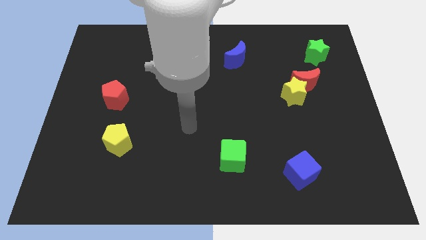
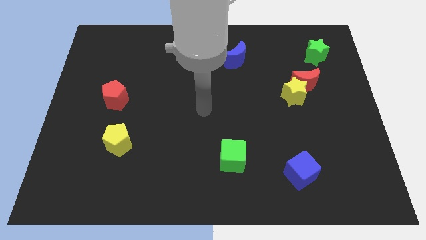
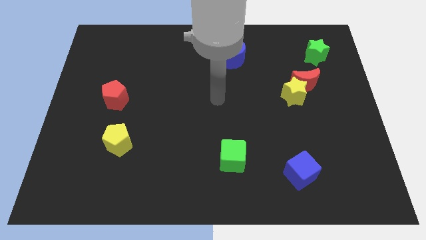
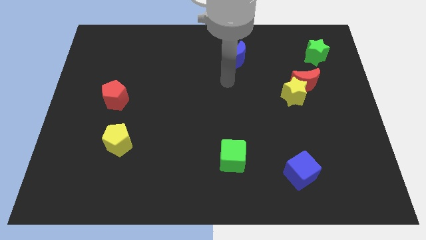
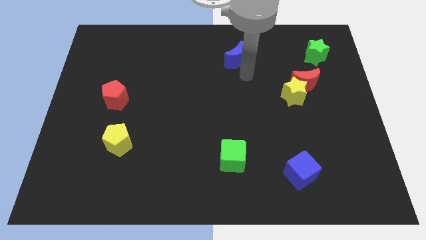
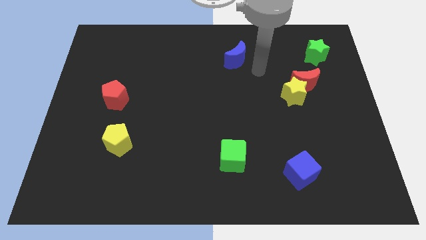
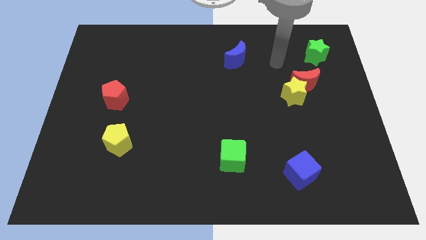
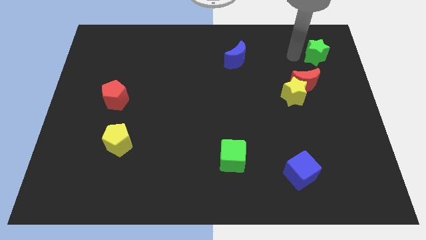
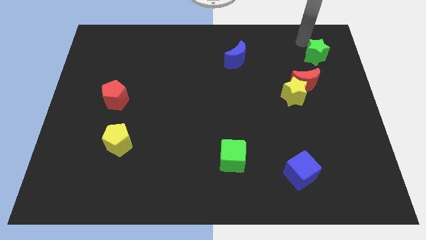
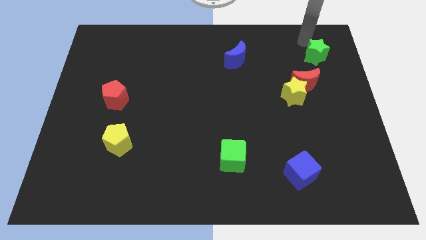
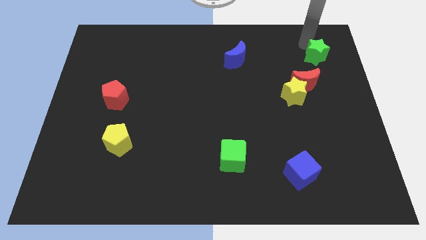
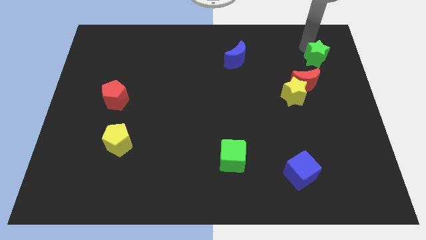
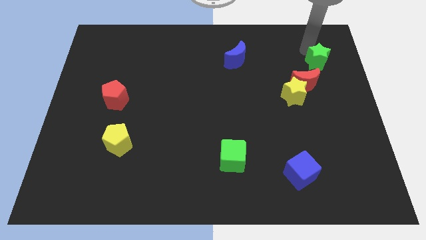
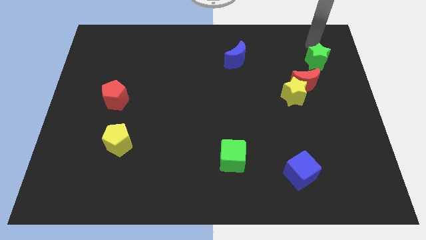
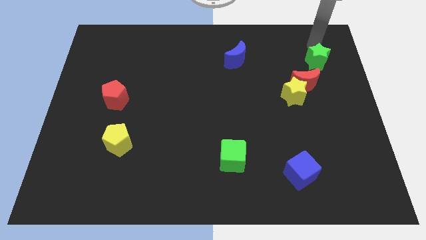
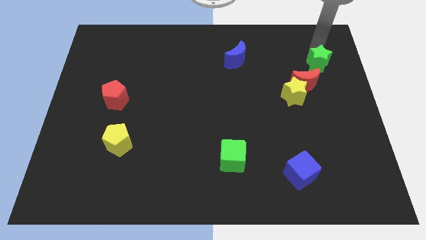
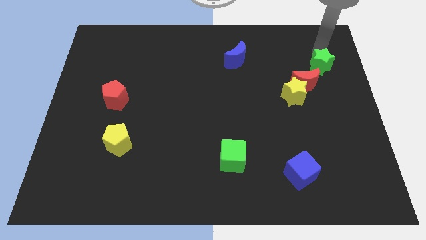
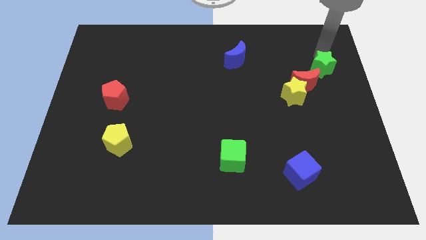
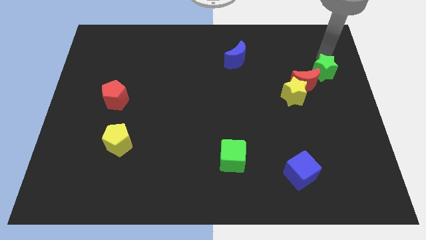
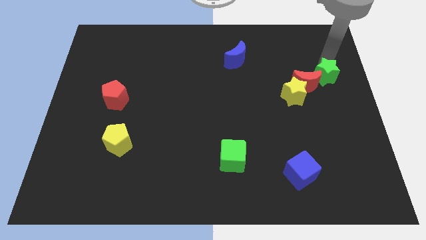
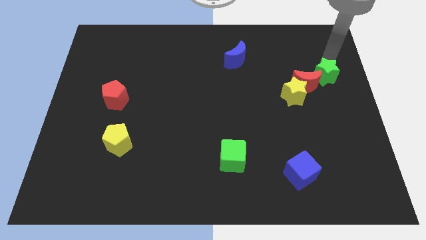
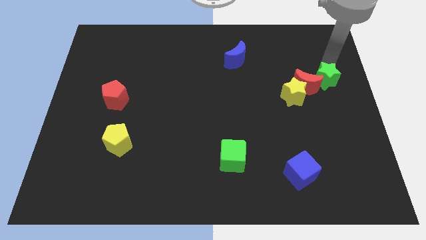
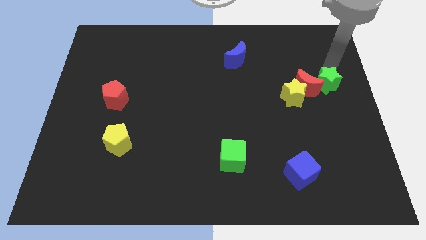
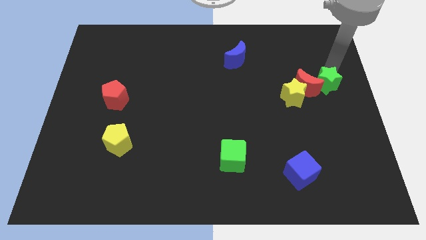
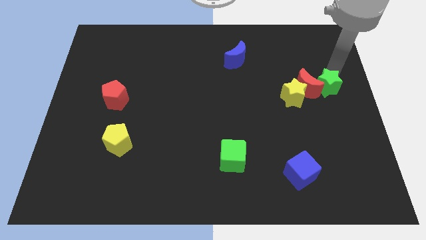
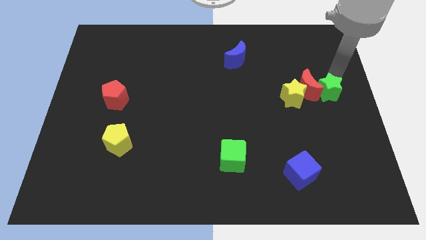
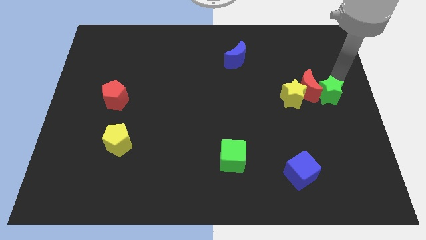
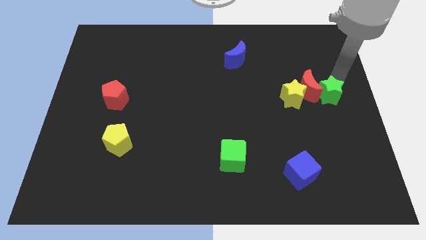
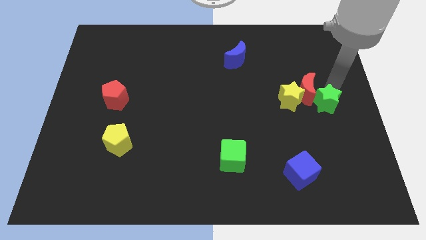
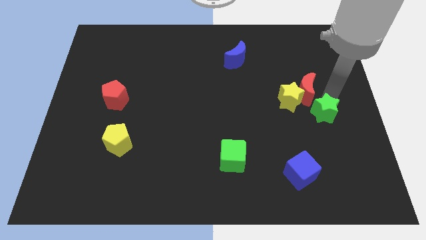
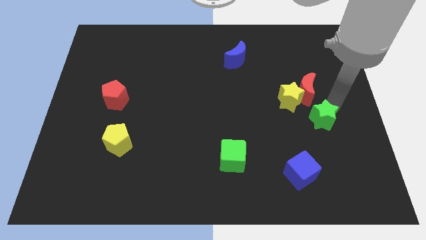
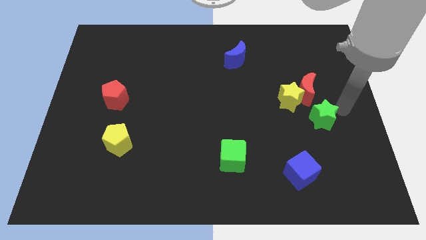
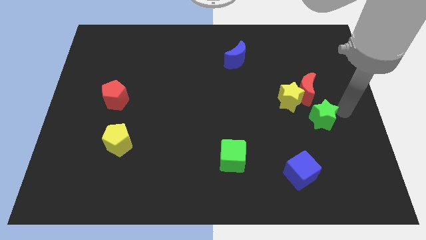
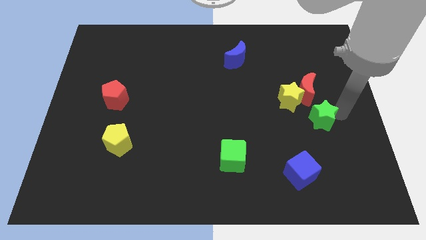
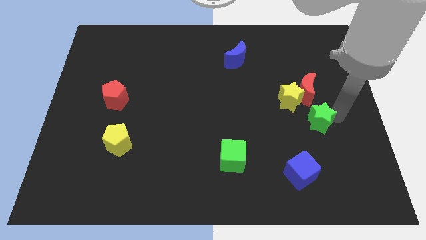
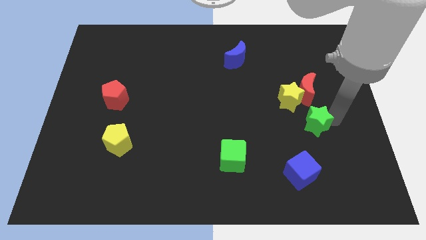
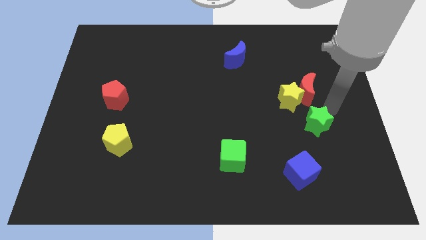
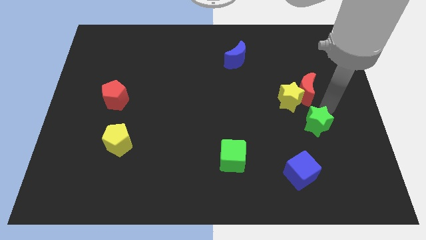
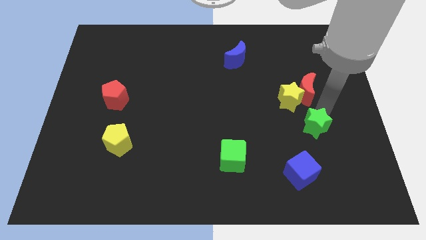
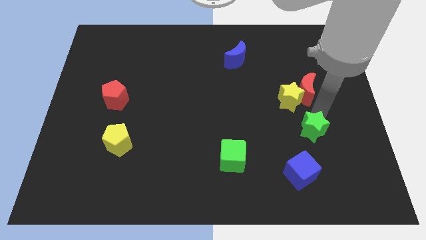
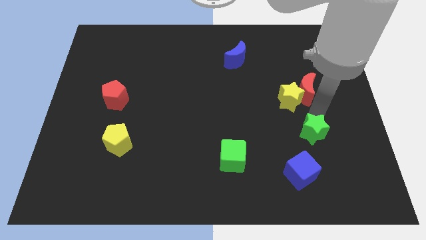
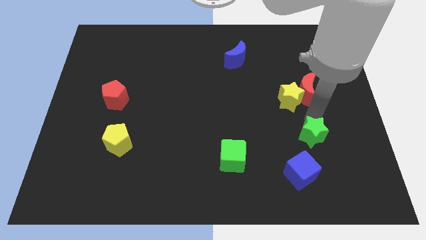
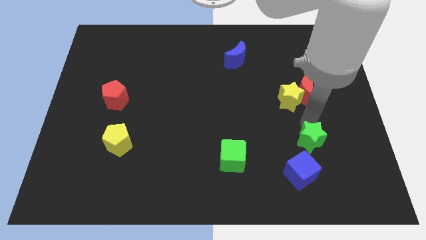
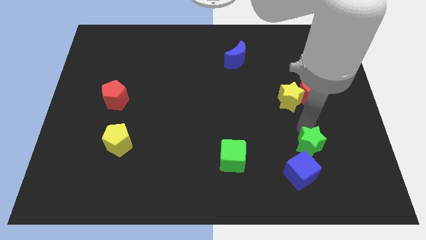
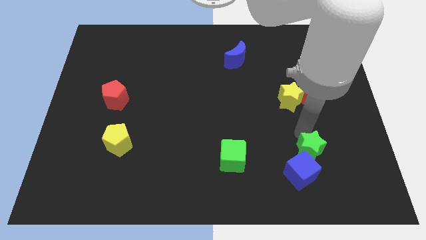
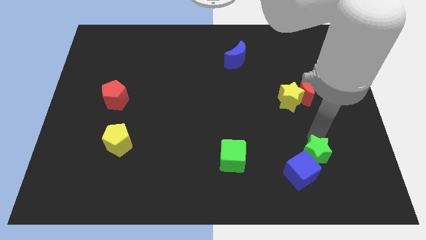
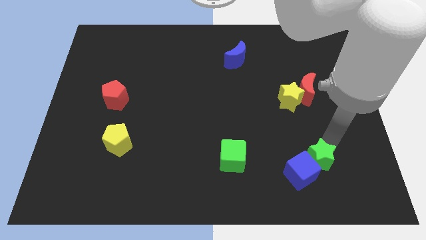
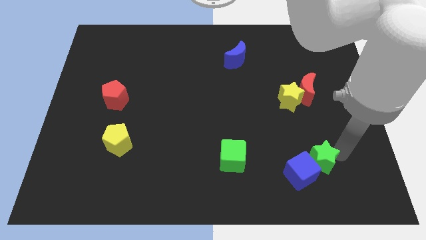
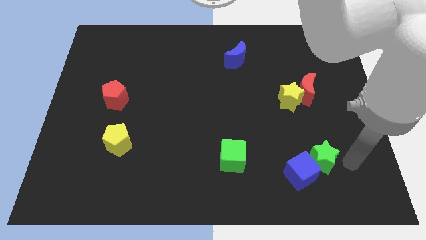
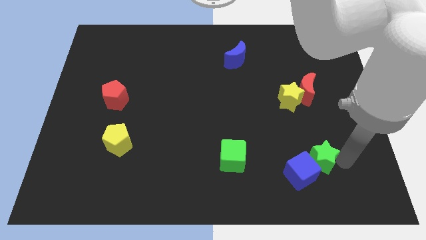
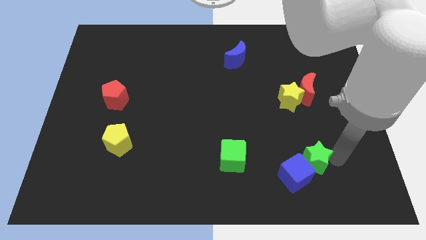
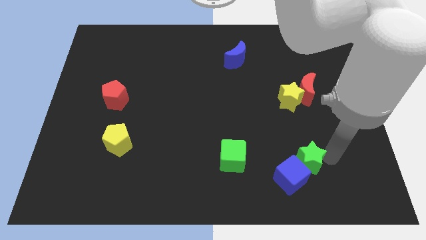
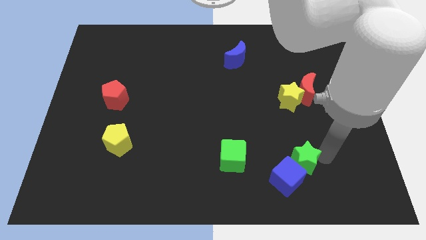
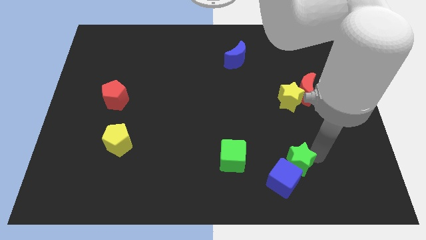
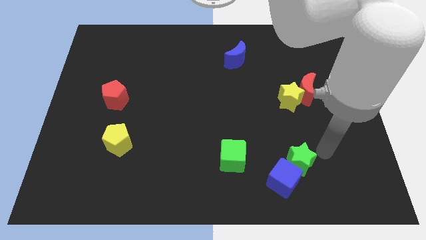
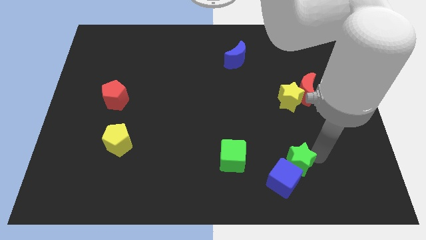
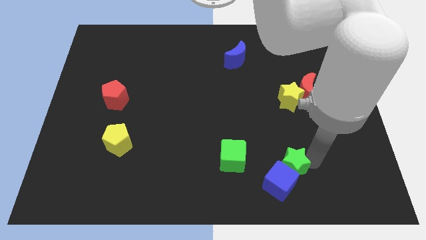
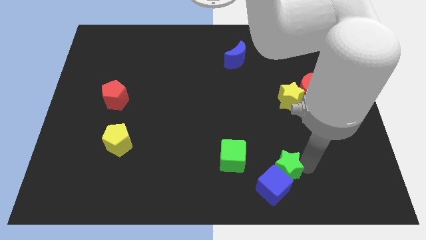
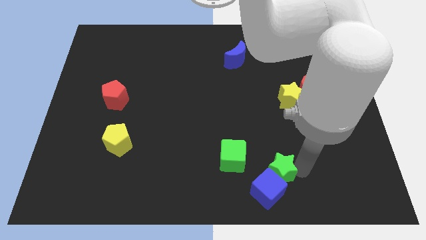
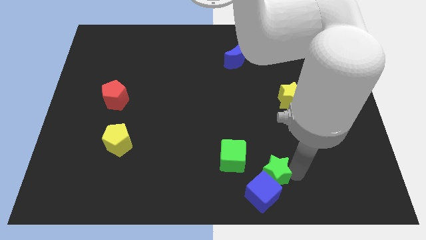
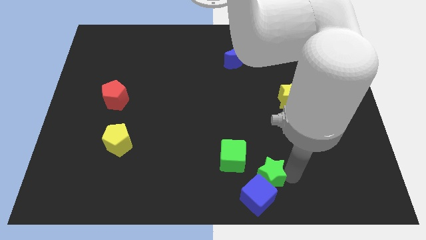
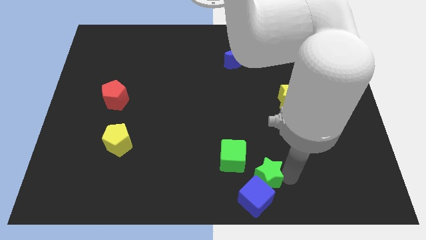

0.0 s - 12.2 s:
push the green star to the bottom

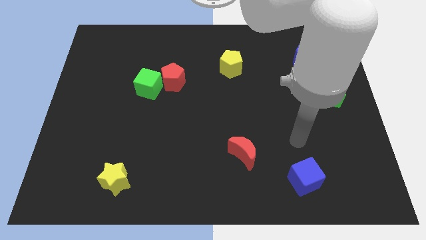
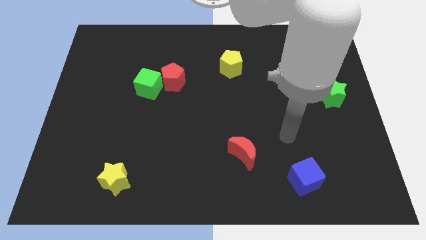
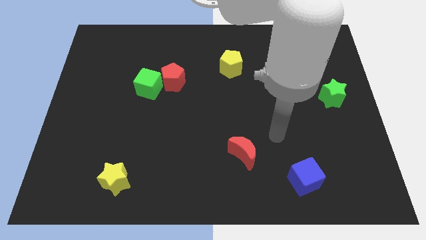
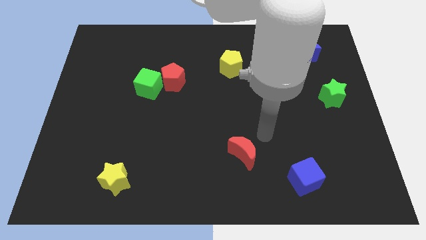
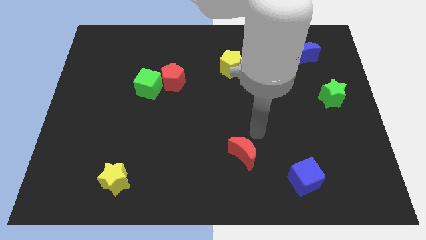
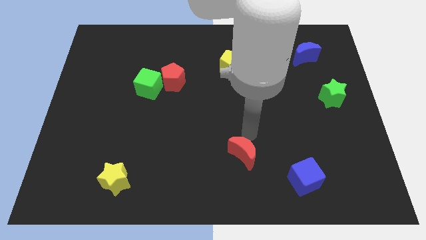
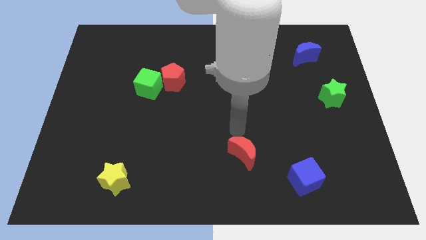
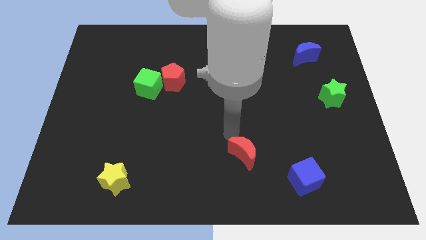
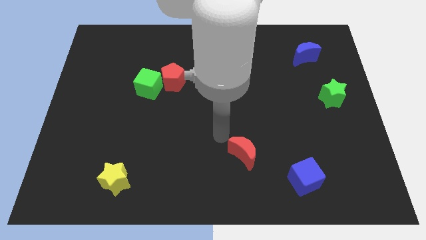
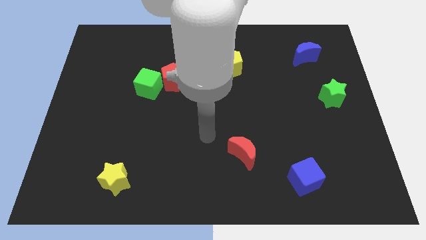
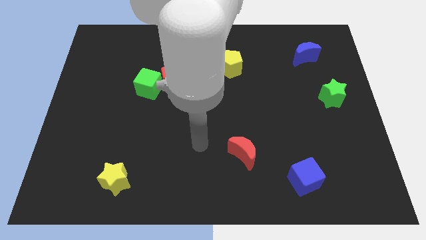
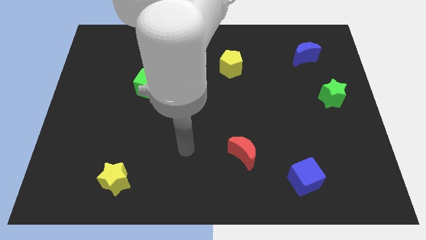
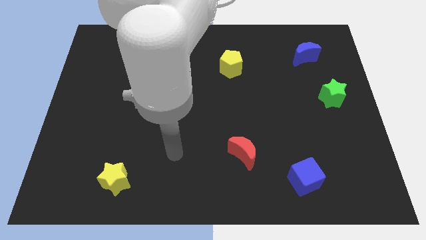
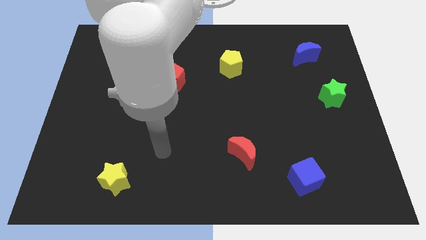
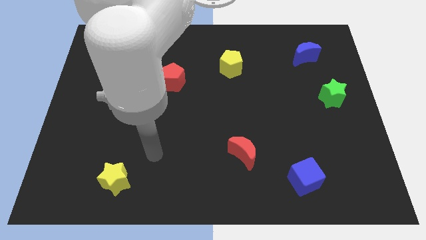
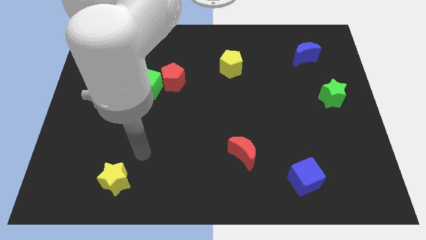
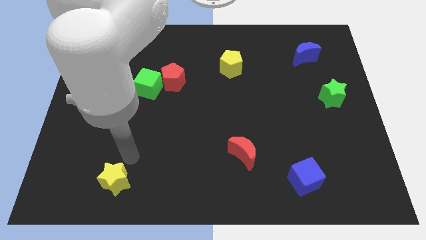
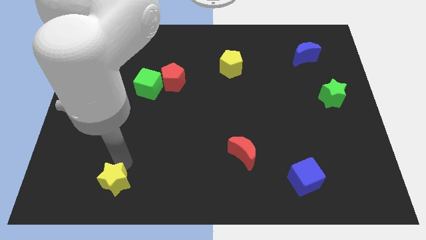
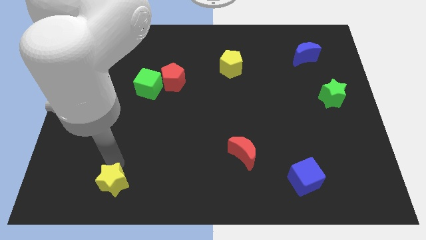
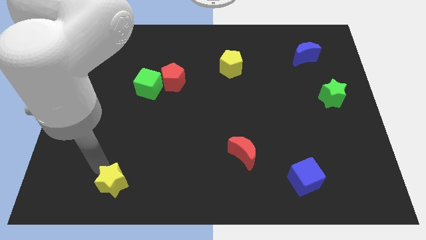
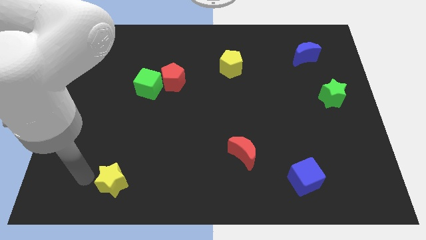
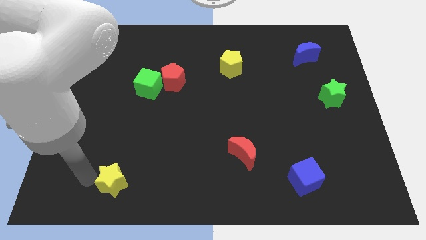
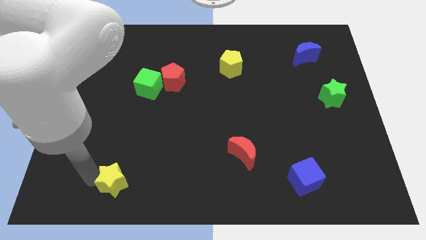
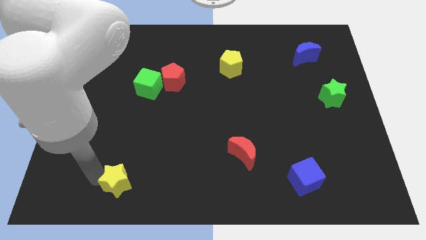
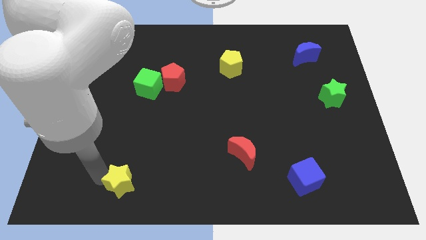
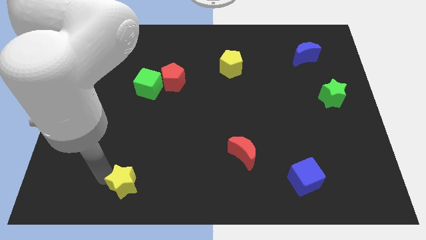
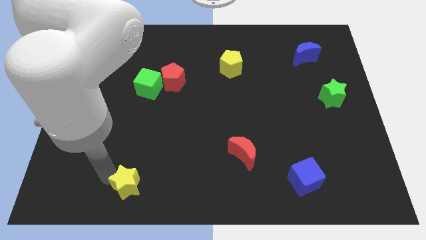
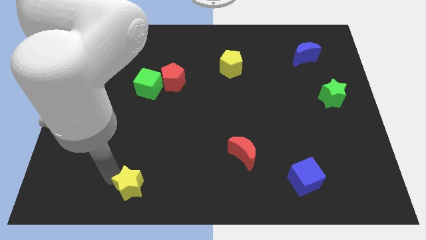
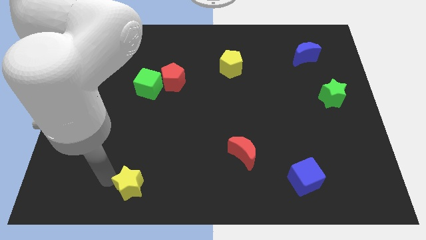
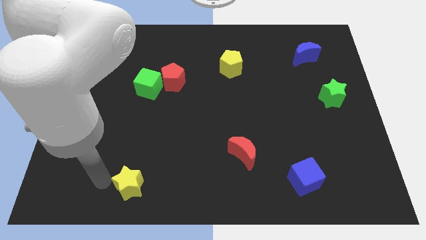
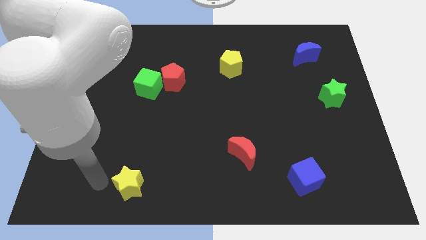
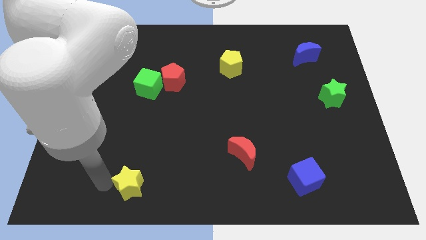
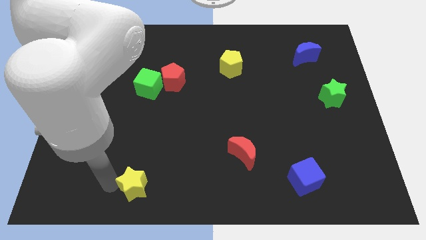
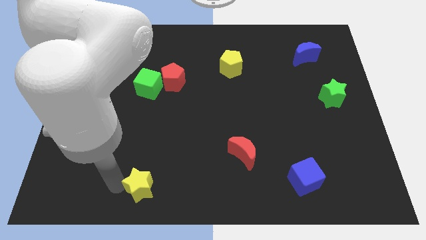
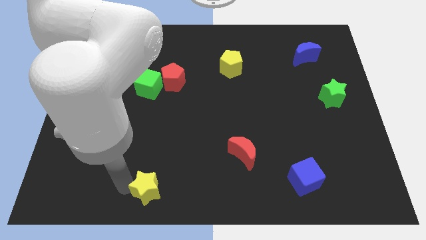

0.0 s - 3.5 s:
slide the yellow star to the bottom
